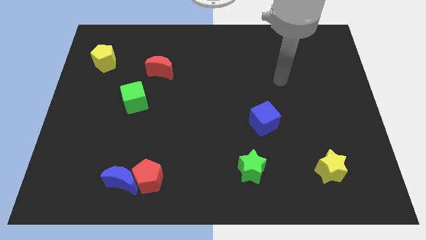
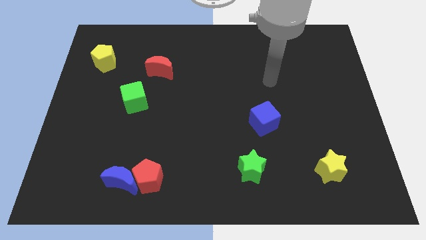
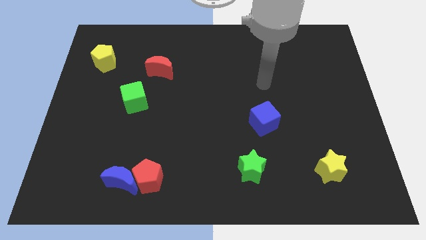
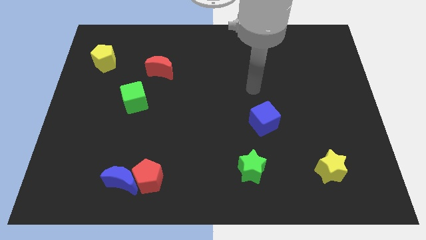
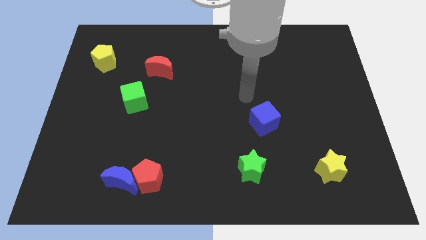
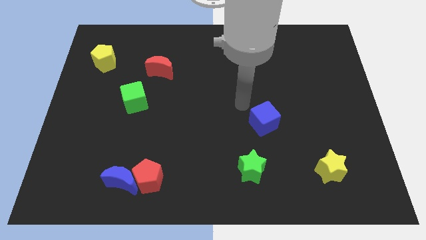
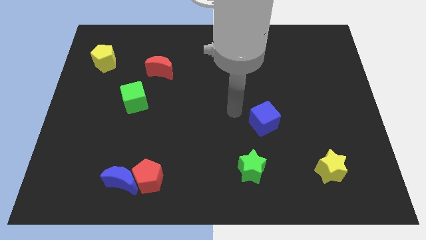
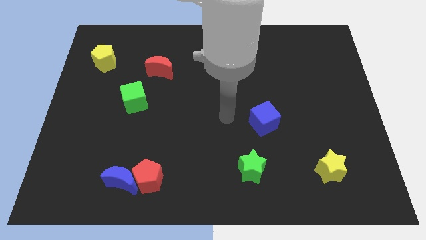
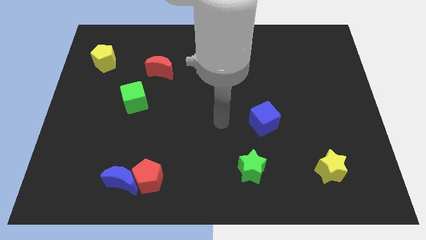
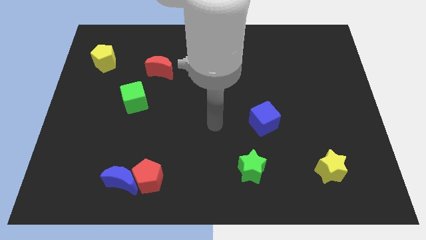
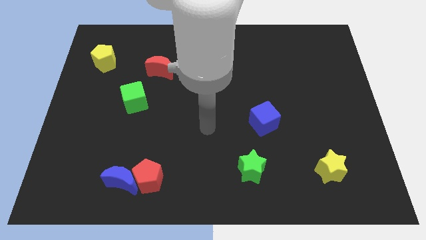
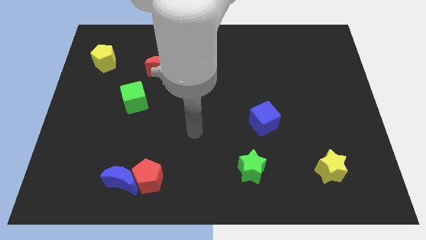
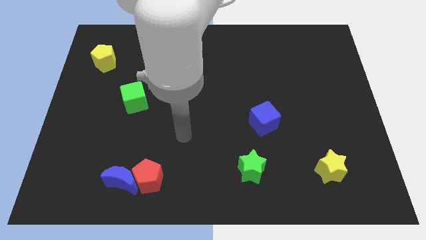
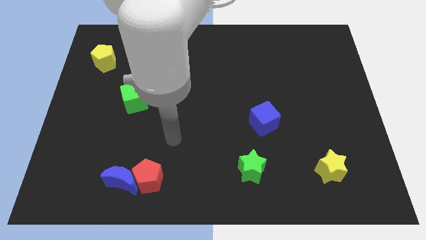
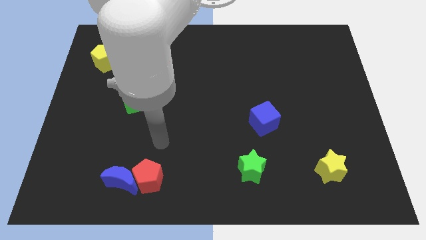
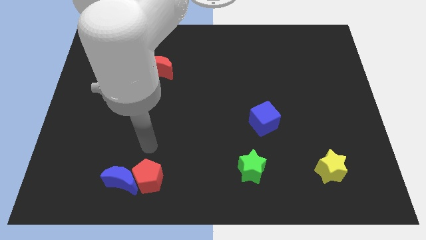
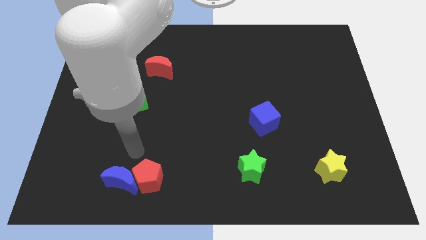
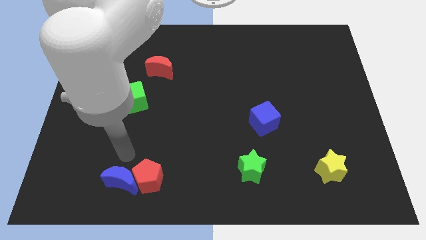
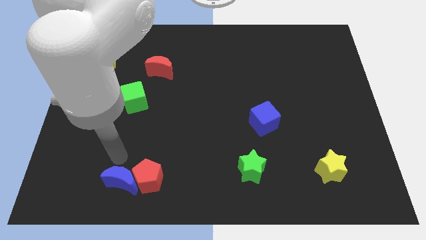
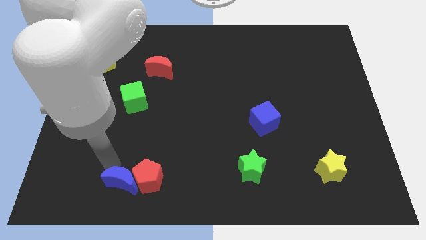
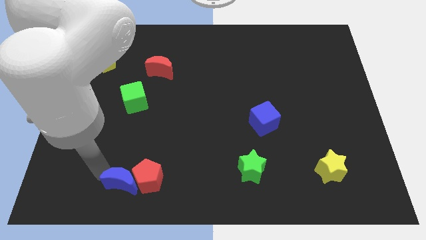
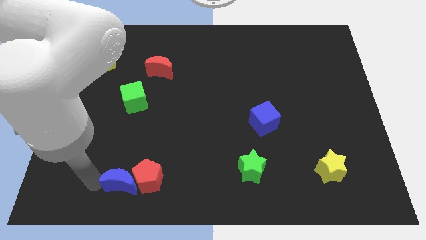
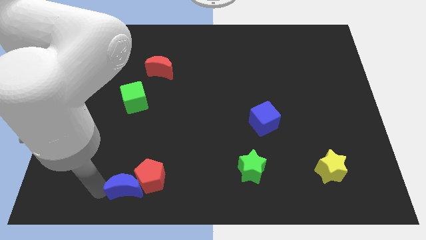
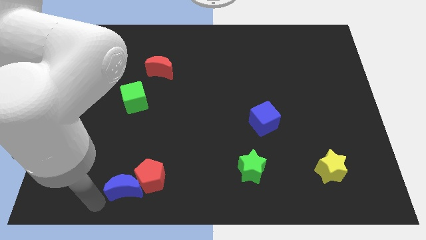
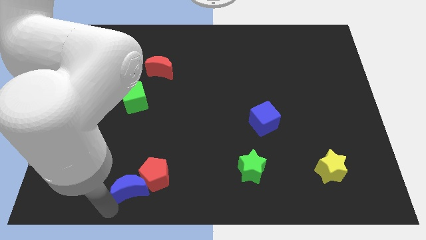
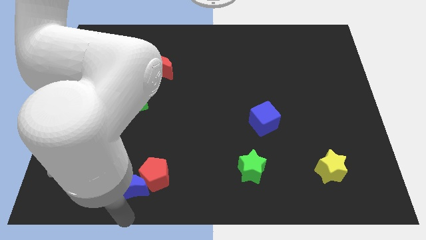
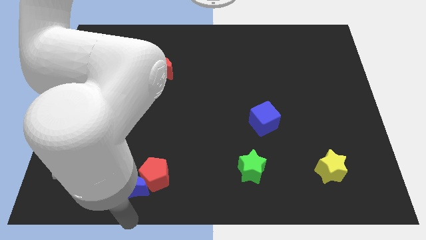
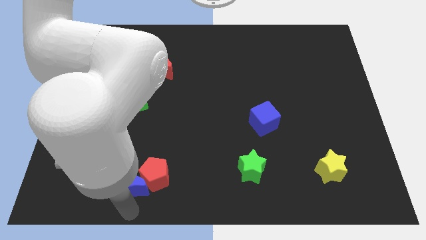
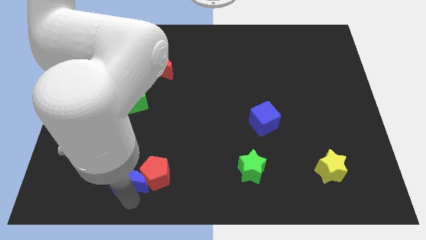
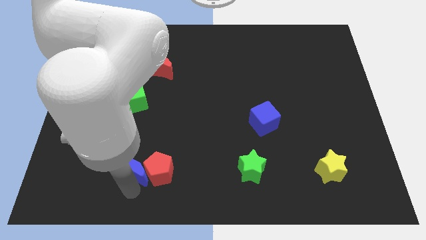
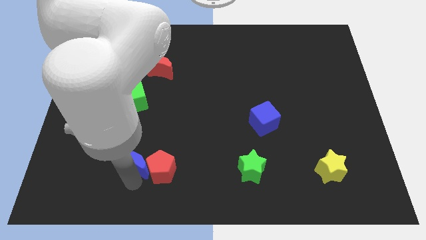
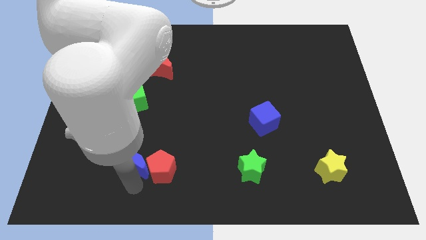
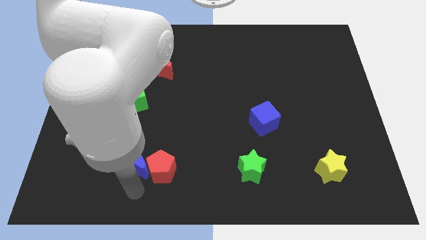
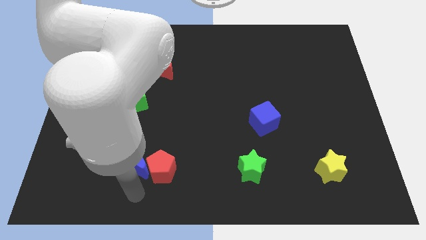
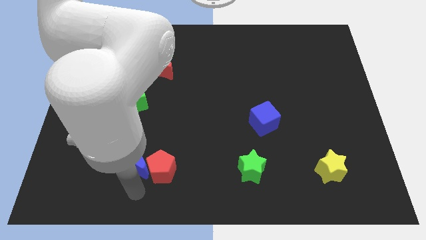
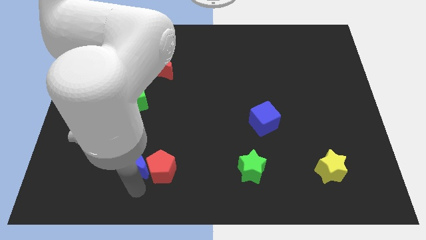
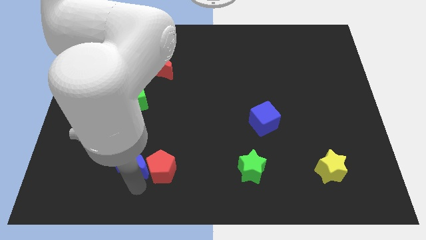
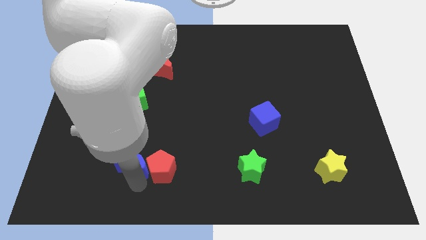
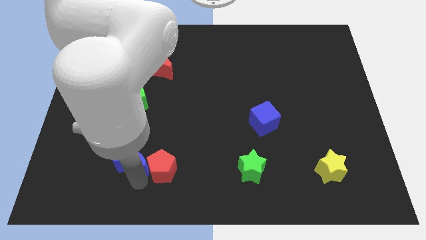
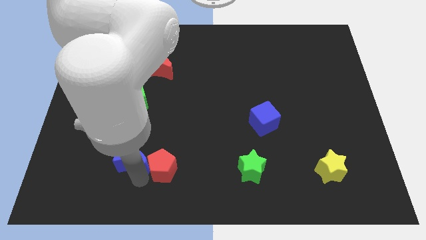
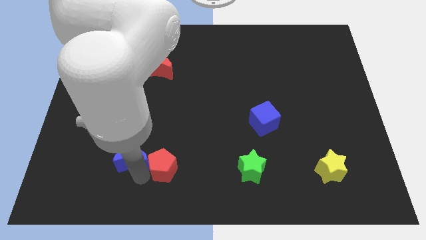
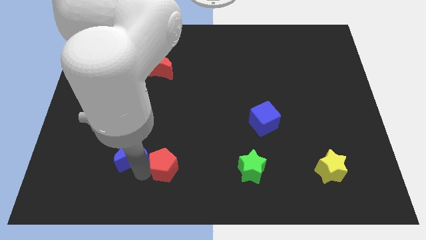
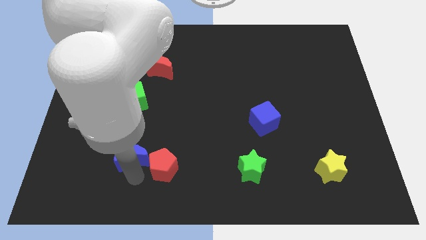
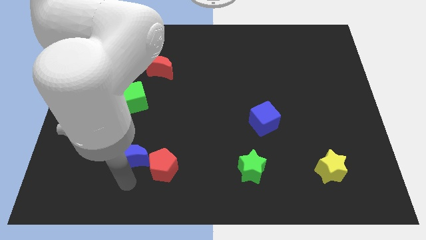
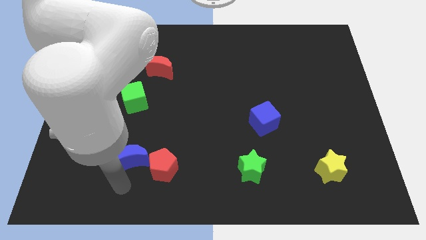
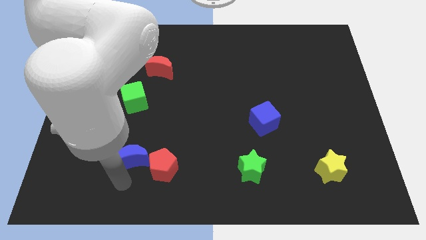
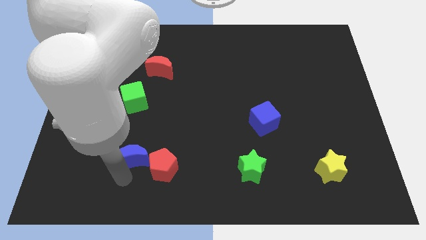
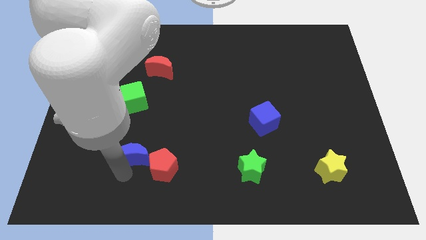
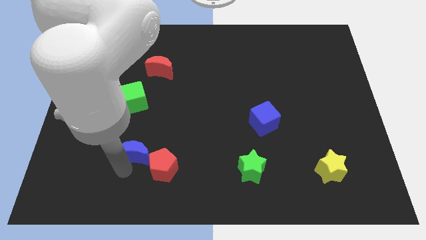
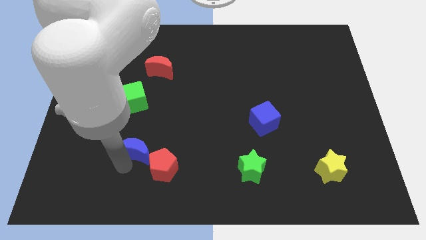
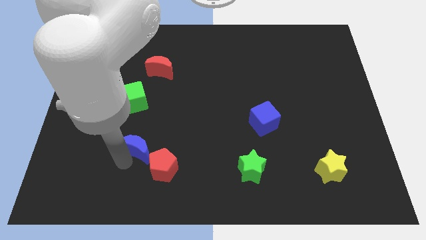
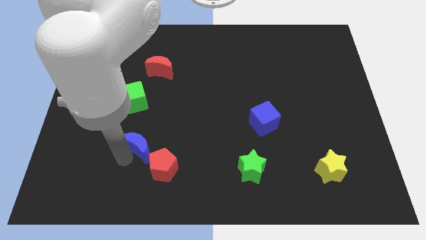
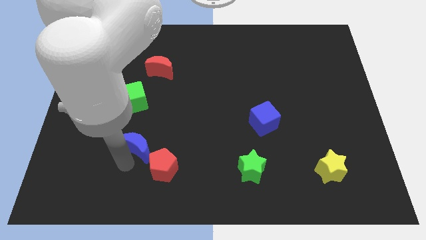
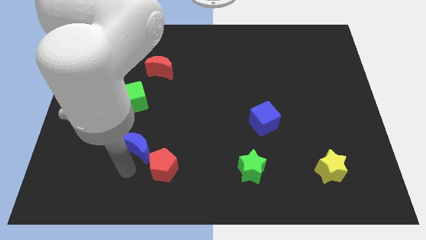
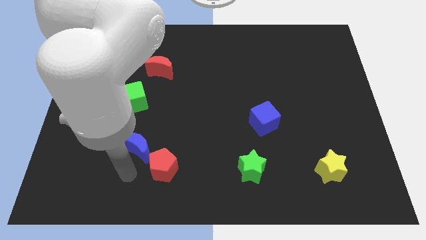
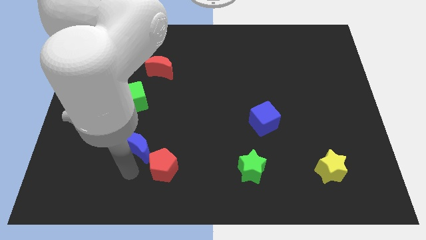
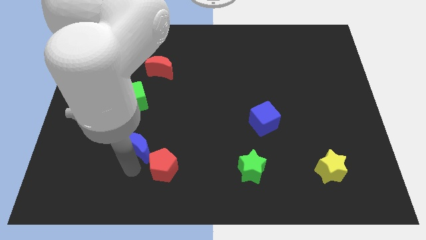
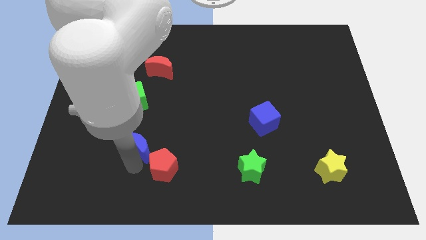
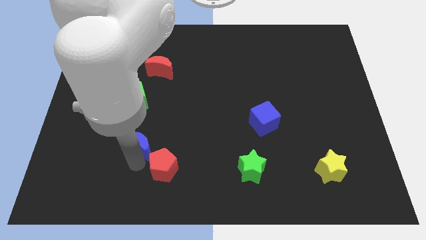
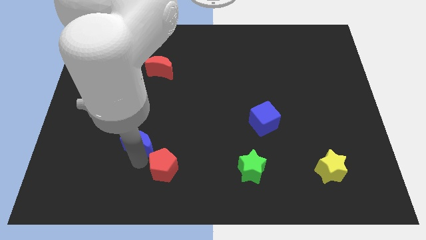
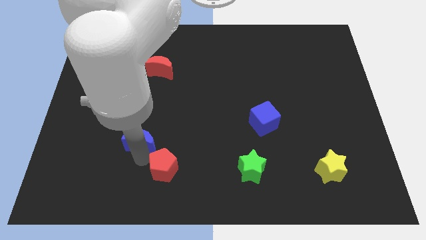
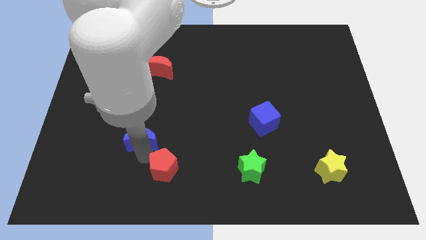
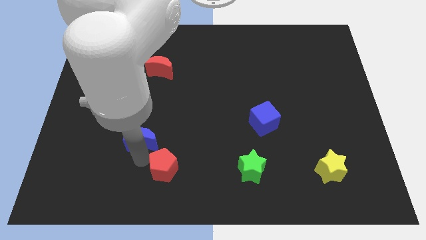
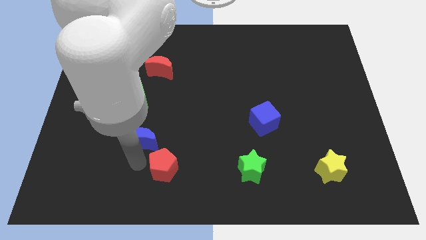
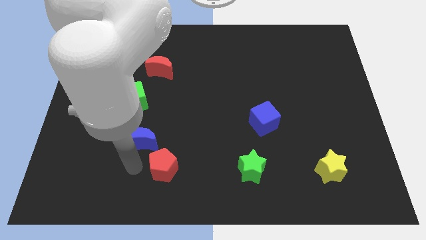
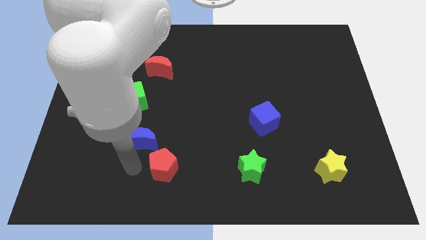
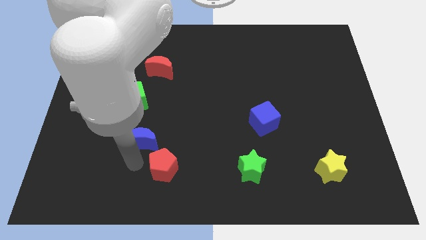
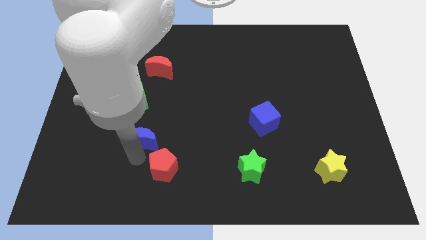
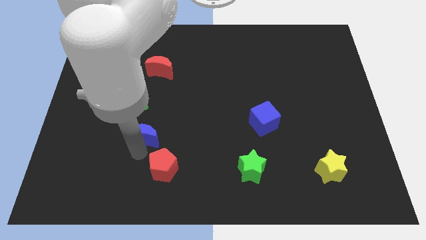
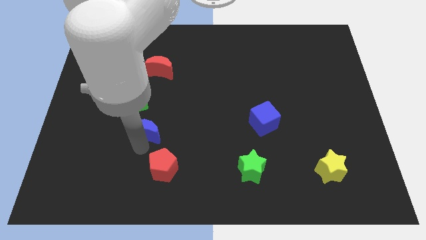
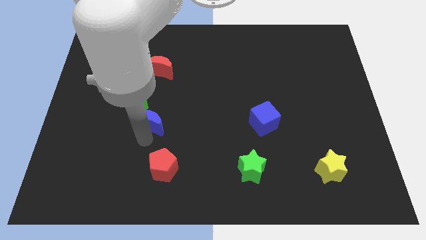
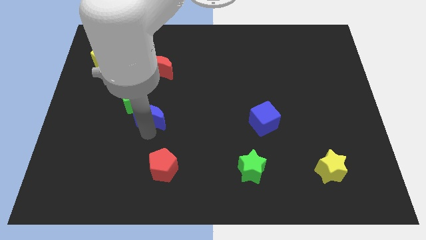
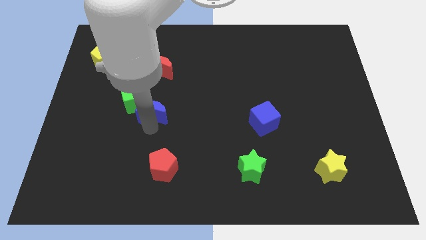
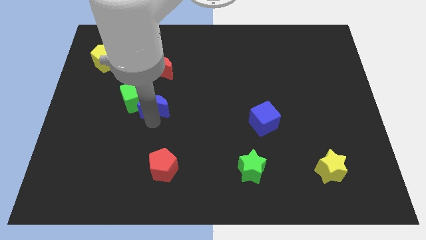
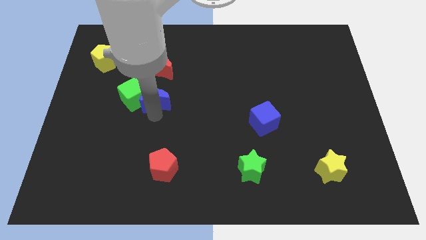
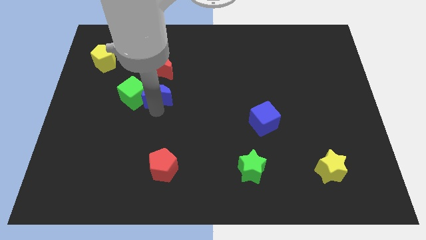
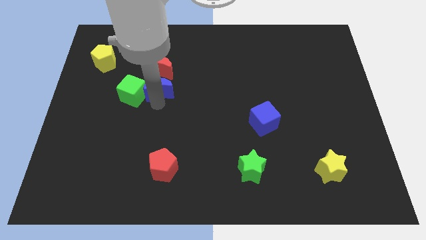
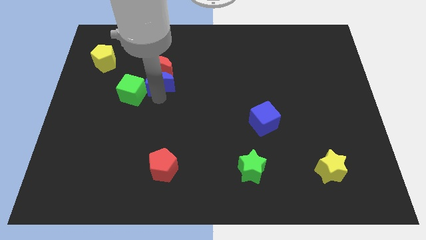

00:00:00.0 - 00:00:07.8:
put the blue moon to the red moon

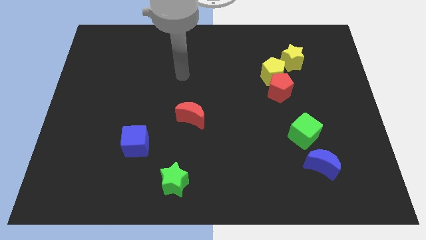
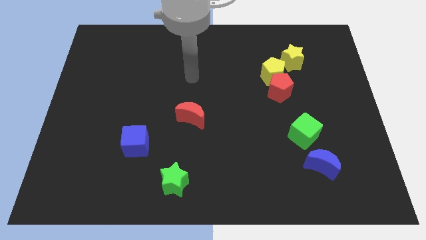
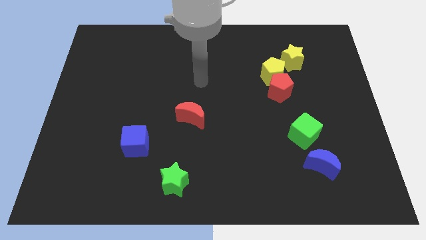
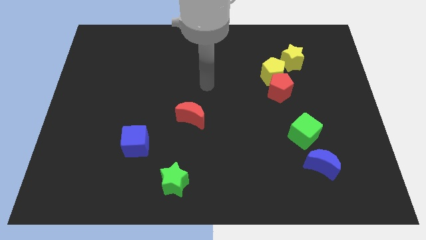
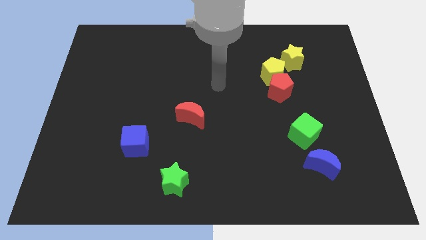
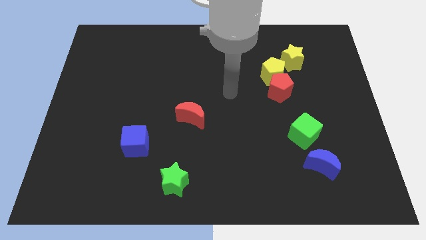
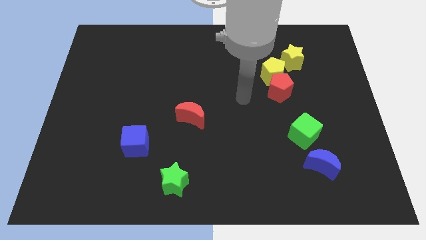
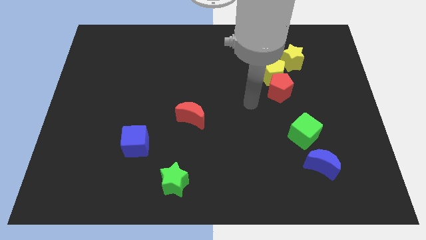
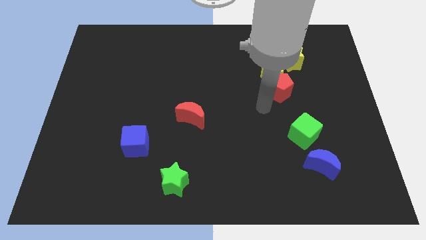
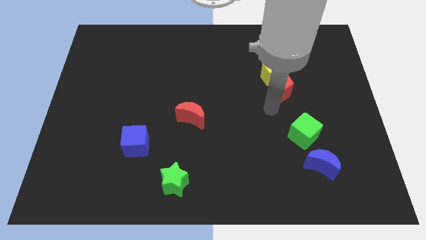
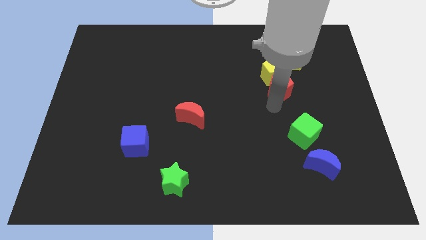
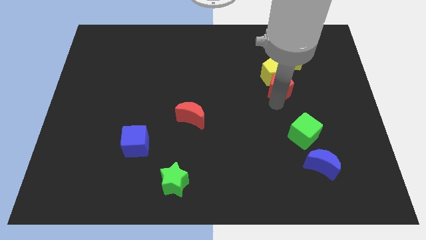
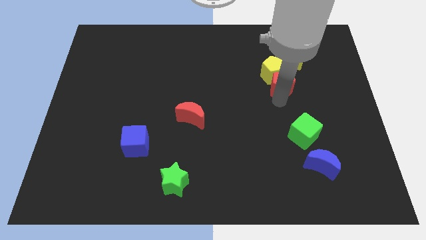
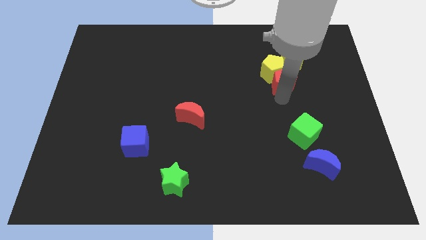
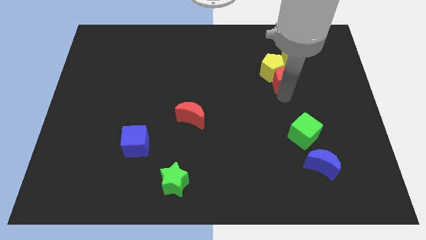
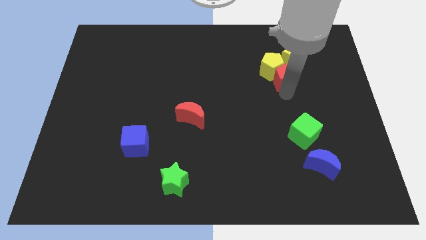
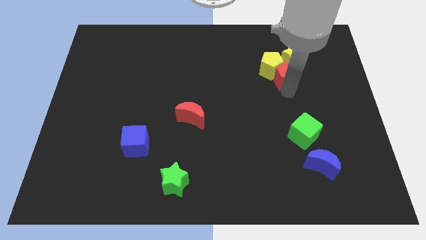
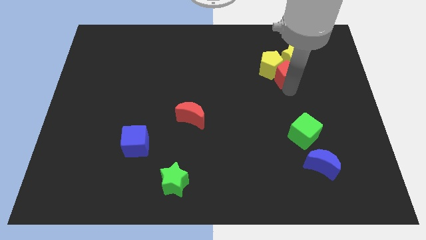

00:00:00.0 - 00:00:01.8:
push the red pentagon close to the yellow star
